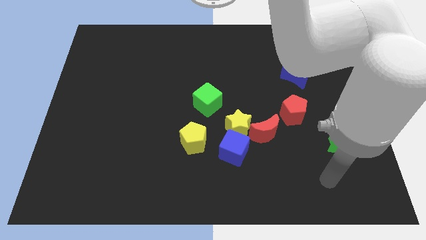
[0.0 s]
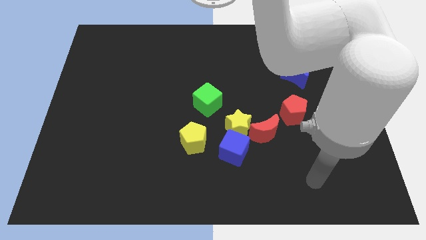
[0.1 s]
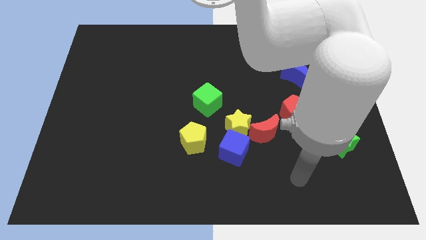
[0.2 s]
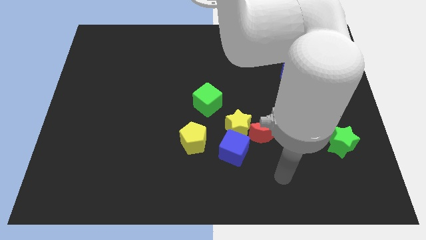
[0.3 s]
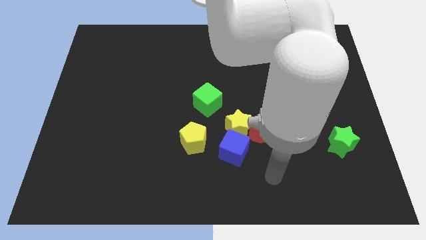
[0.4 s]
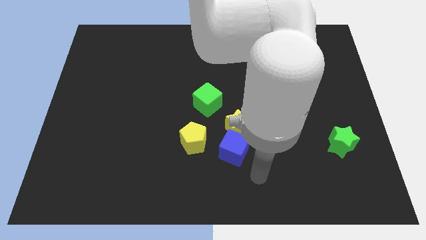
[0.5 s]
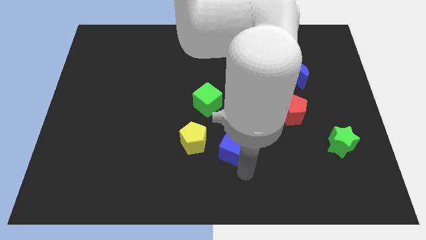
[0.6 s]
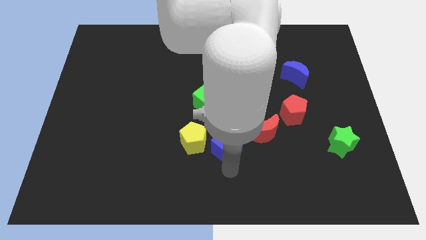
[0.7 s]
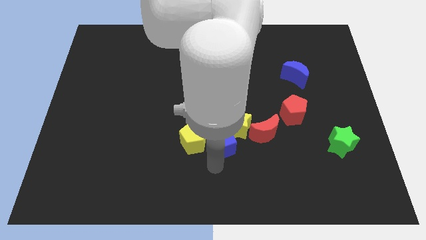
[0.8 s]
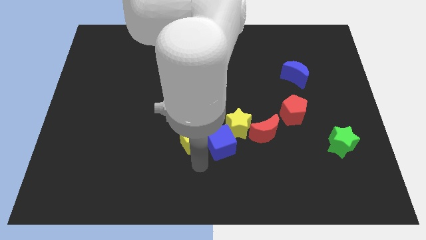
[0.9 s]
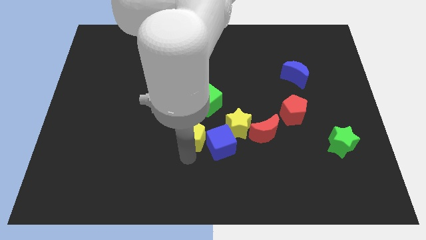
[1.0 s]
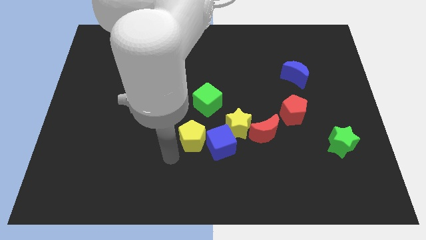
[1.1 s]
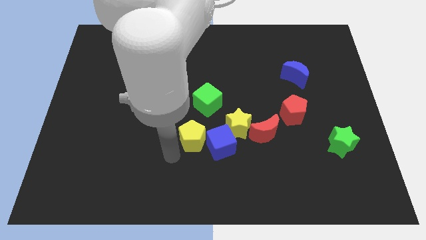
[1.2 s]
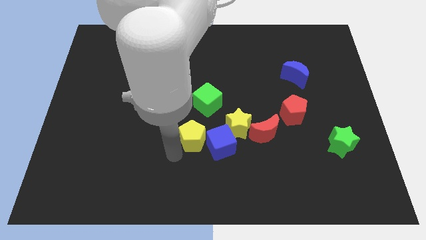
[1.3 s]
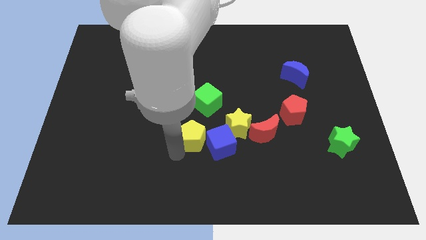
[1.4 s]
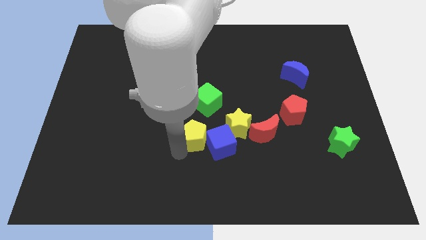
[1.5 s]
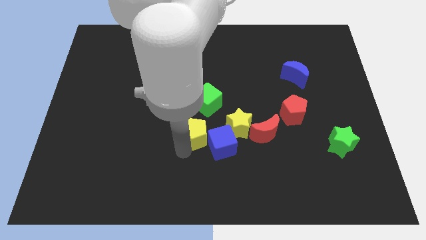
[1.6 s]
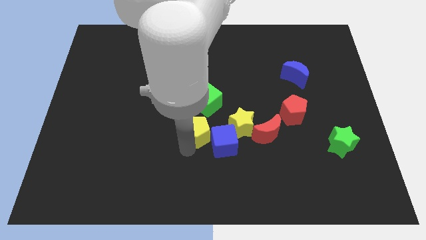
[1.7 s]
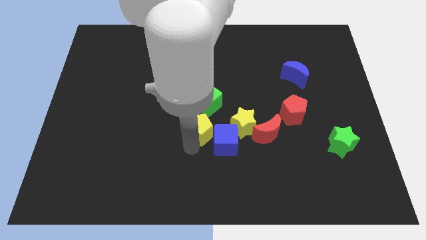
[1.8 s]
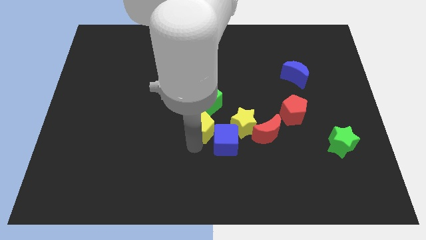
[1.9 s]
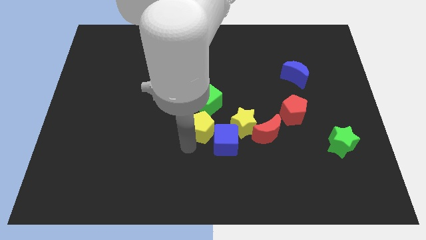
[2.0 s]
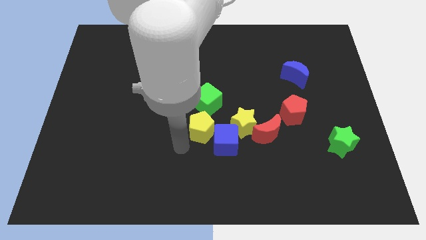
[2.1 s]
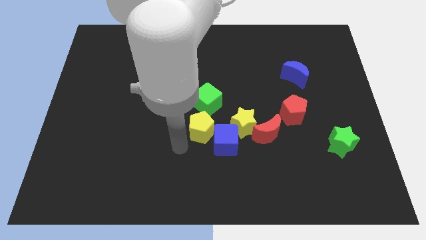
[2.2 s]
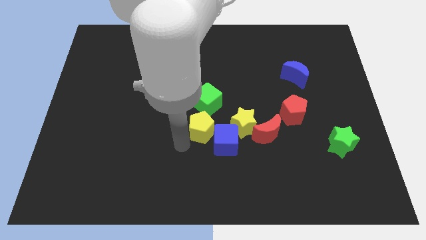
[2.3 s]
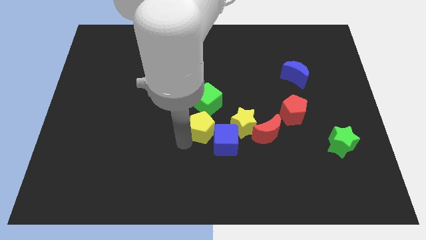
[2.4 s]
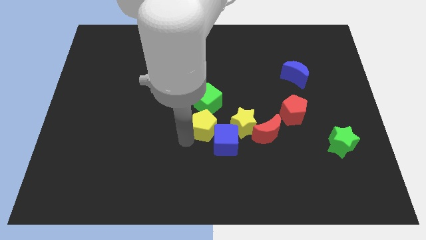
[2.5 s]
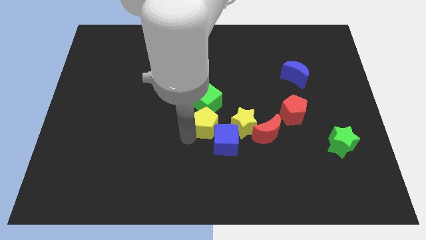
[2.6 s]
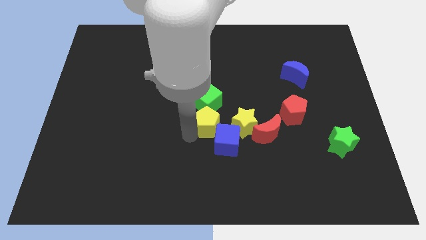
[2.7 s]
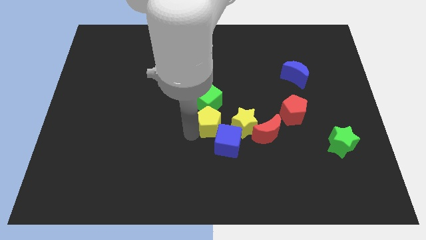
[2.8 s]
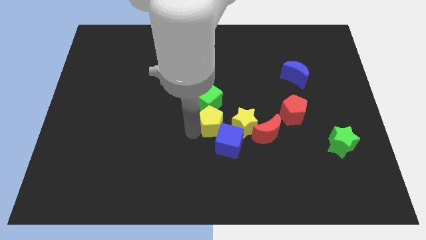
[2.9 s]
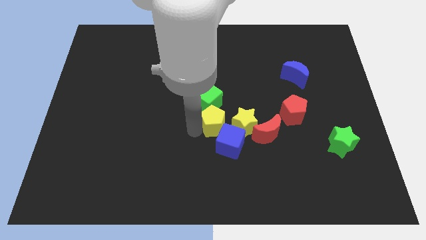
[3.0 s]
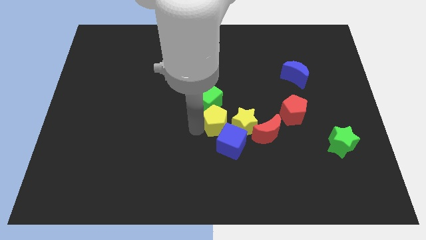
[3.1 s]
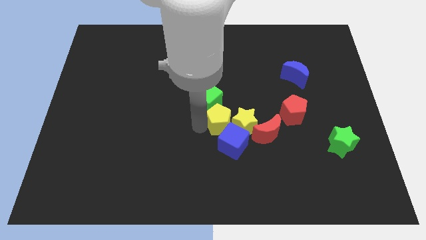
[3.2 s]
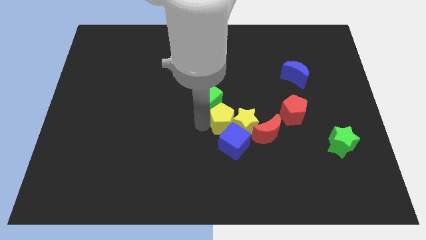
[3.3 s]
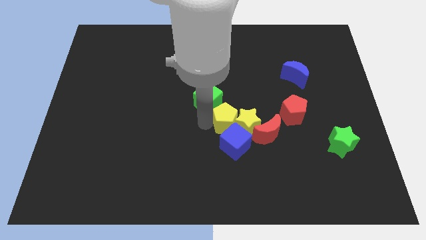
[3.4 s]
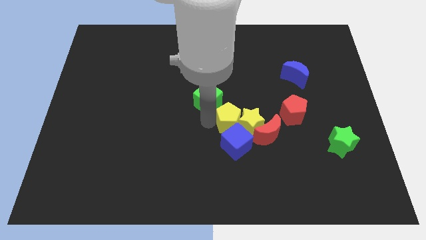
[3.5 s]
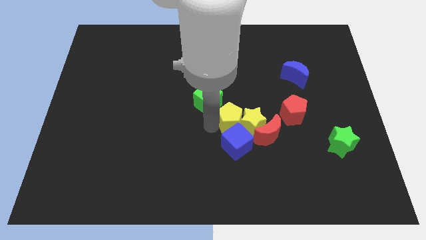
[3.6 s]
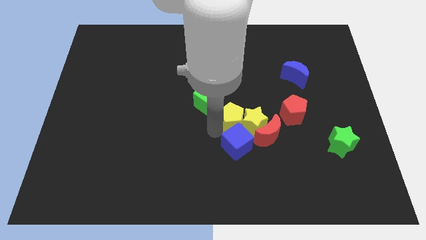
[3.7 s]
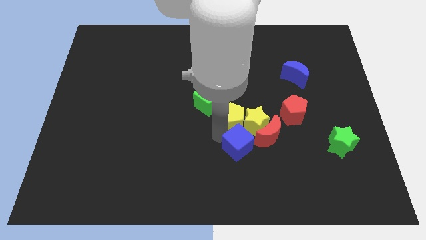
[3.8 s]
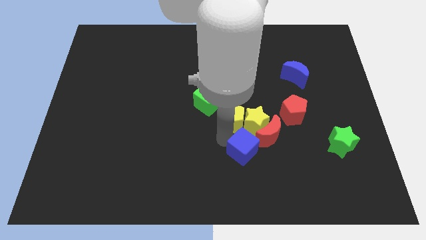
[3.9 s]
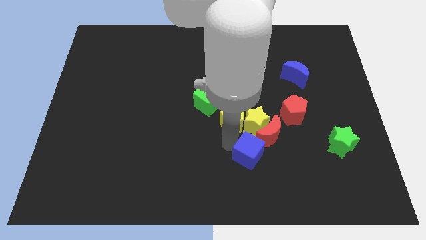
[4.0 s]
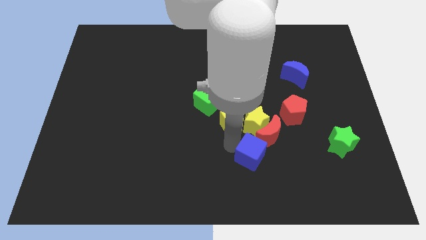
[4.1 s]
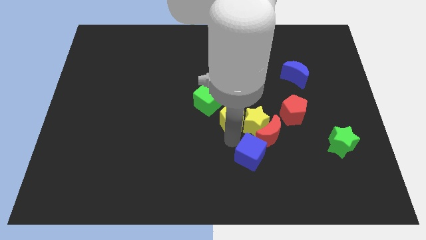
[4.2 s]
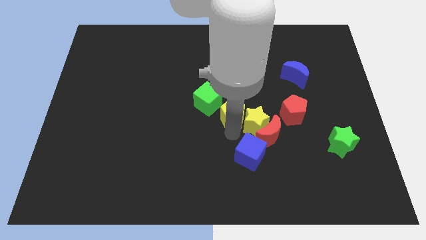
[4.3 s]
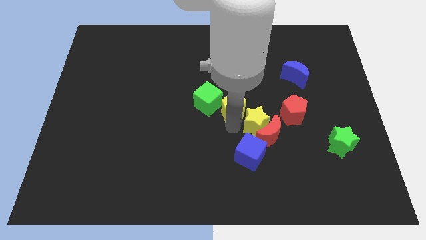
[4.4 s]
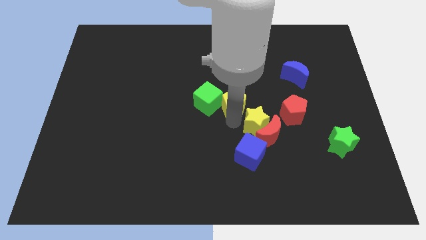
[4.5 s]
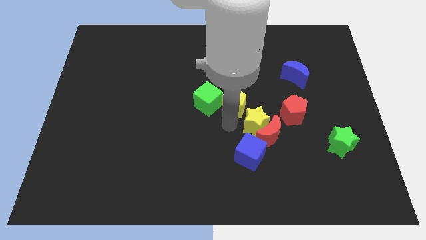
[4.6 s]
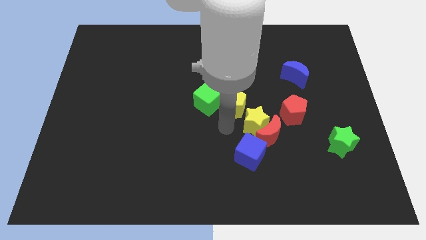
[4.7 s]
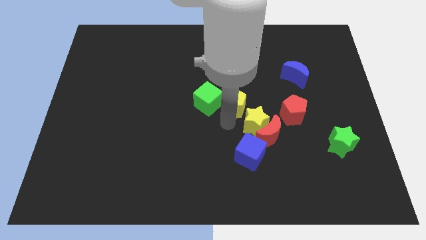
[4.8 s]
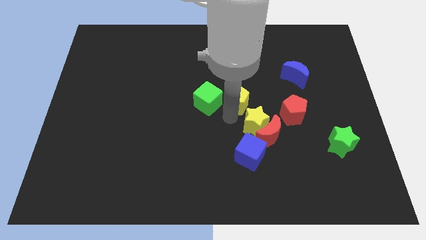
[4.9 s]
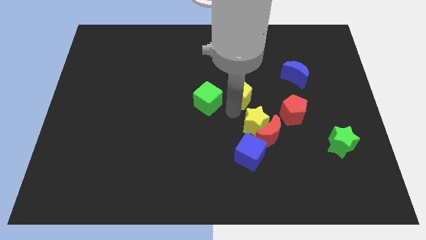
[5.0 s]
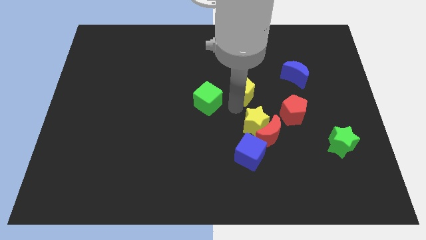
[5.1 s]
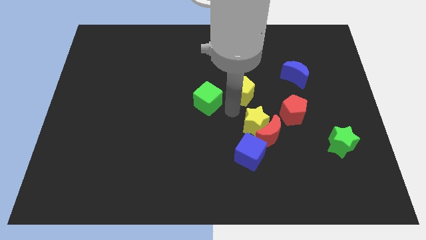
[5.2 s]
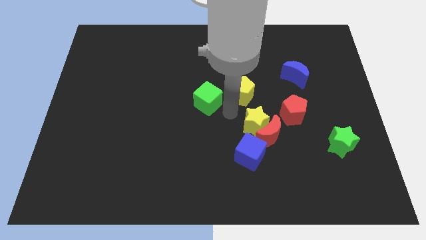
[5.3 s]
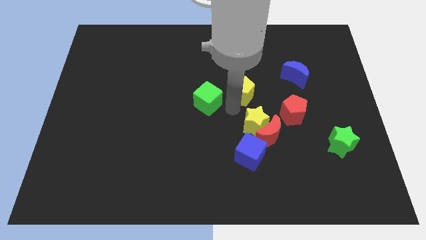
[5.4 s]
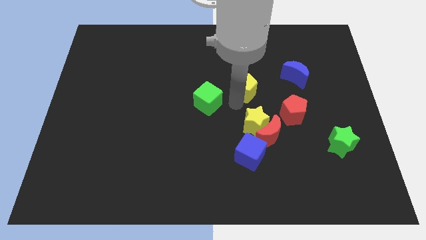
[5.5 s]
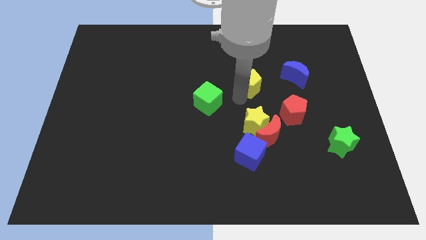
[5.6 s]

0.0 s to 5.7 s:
slide the yellow pentagon diagonally upwards and right

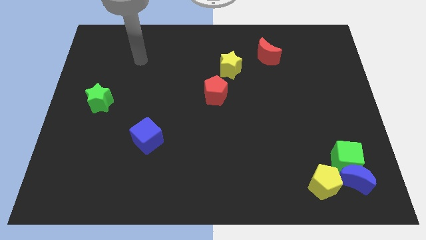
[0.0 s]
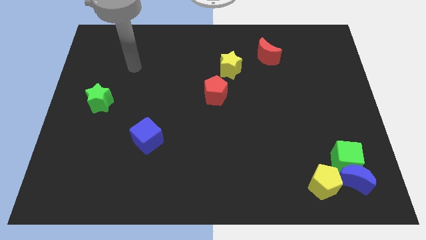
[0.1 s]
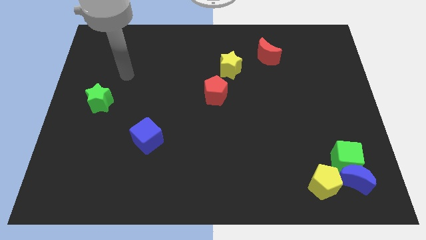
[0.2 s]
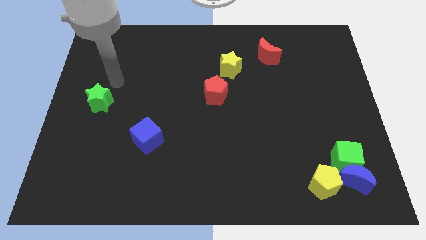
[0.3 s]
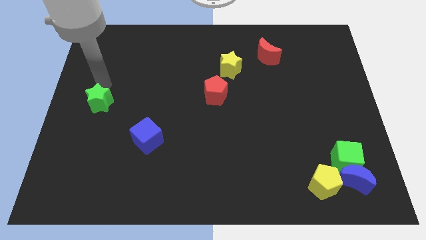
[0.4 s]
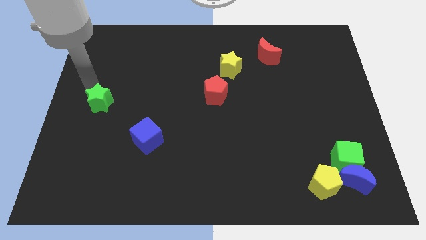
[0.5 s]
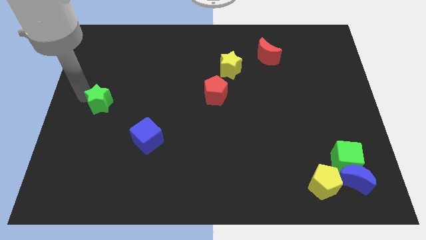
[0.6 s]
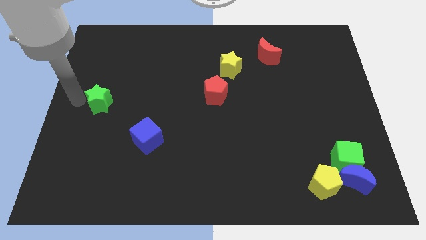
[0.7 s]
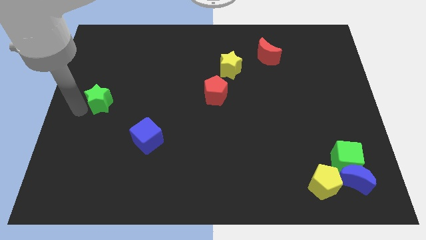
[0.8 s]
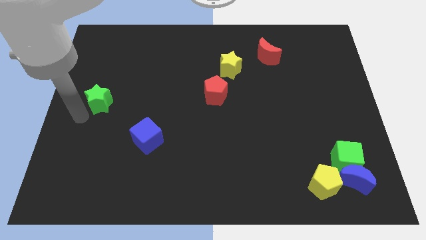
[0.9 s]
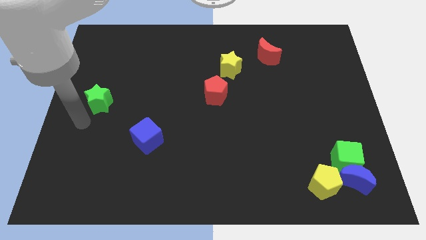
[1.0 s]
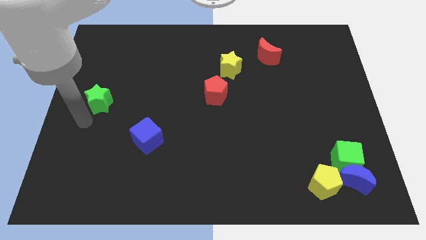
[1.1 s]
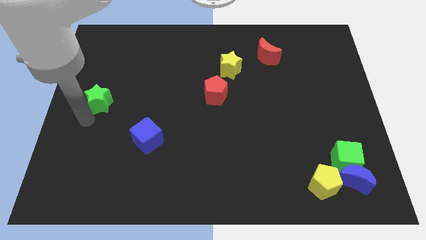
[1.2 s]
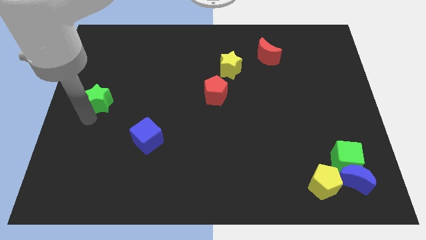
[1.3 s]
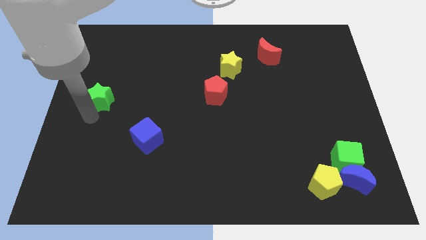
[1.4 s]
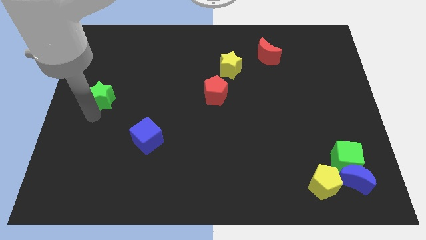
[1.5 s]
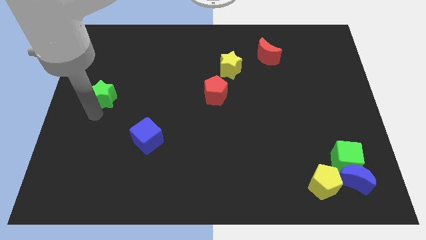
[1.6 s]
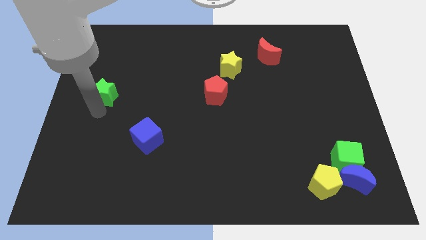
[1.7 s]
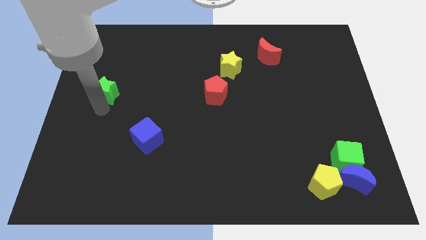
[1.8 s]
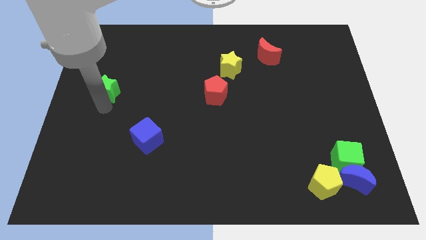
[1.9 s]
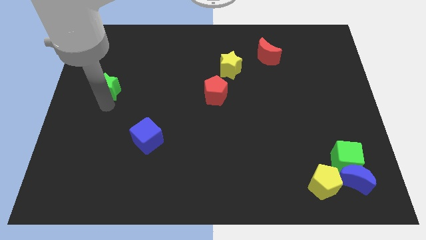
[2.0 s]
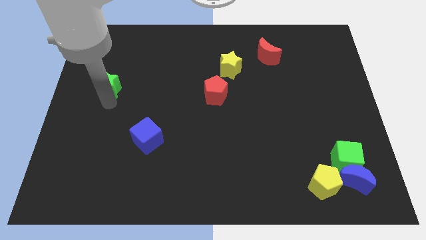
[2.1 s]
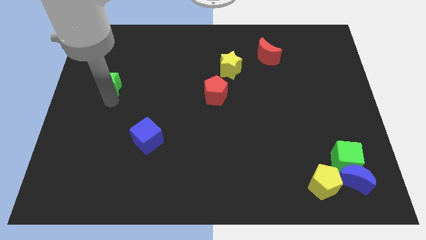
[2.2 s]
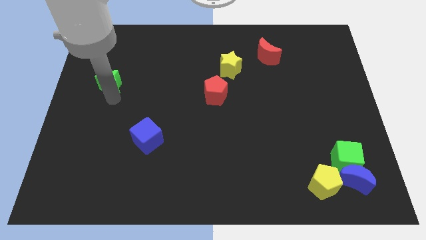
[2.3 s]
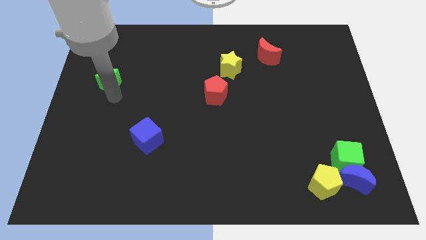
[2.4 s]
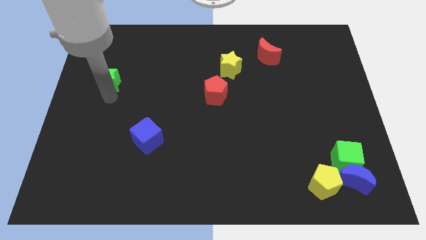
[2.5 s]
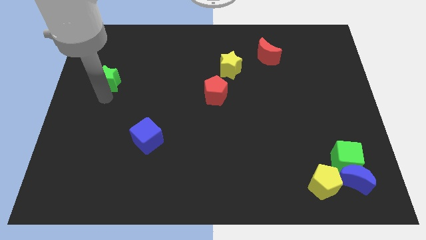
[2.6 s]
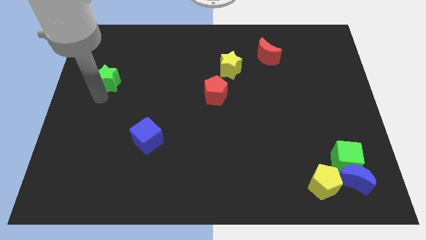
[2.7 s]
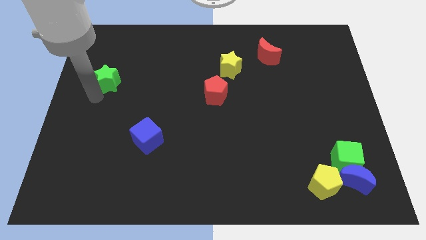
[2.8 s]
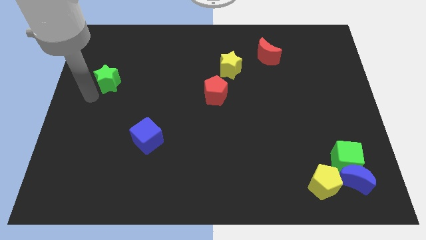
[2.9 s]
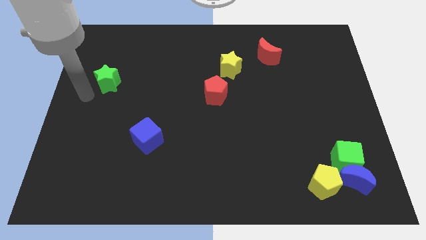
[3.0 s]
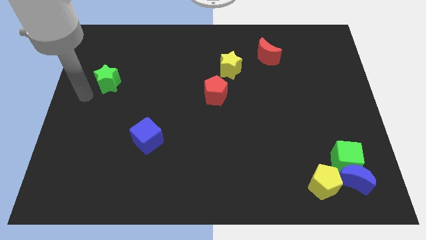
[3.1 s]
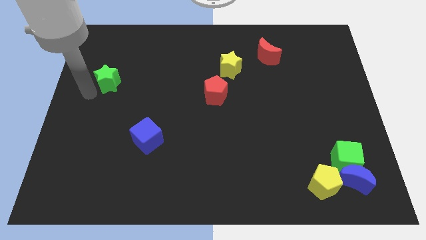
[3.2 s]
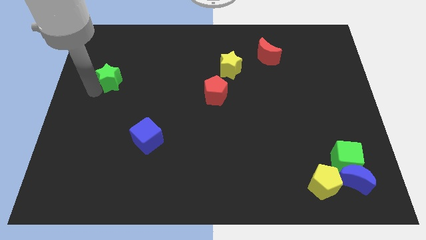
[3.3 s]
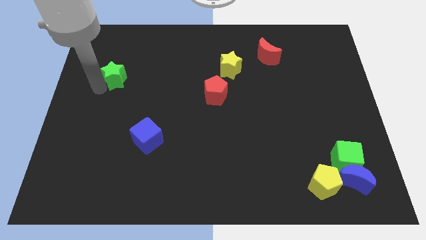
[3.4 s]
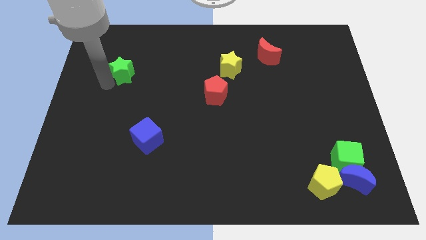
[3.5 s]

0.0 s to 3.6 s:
slightly push the green star diagonally upwards and right
